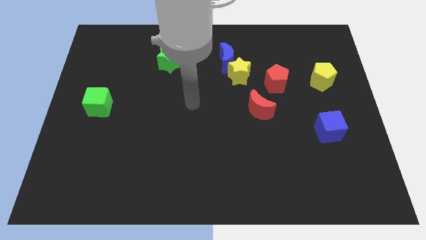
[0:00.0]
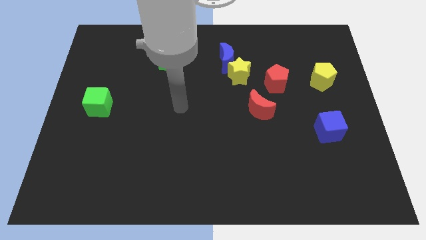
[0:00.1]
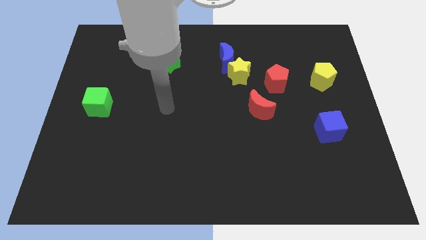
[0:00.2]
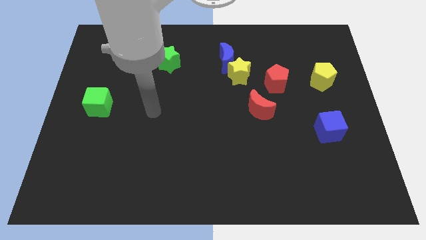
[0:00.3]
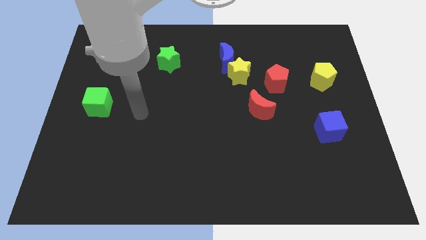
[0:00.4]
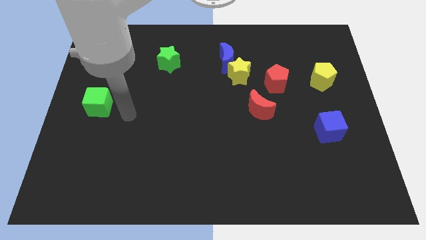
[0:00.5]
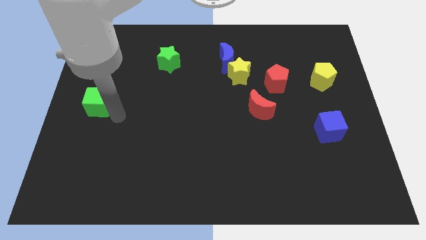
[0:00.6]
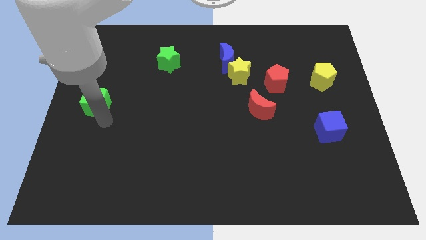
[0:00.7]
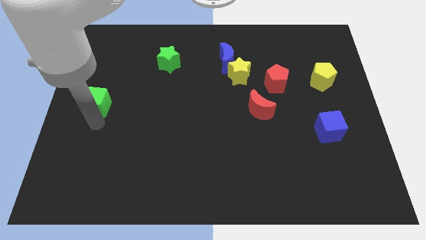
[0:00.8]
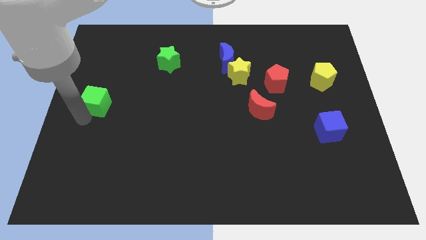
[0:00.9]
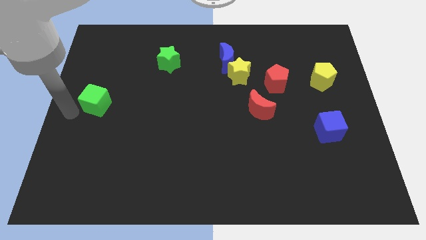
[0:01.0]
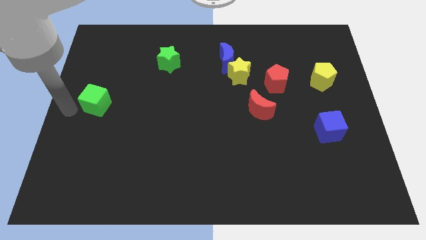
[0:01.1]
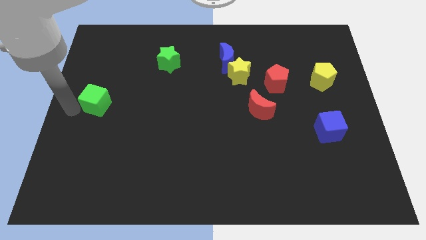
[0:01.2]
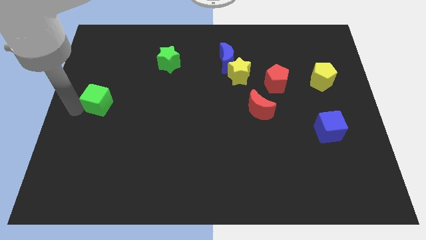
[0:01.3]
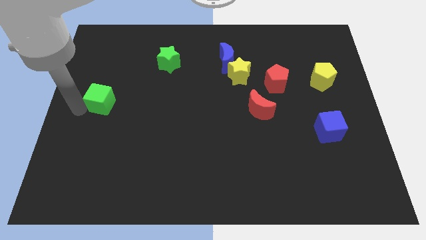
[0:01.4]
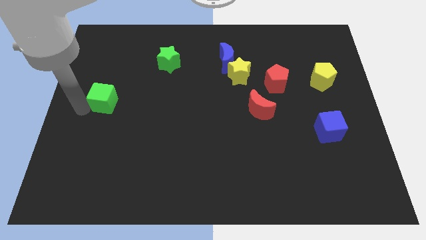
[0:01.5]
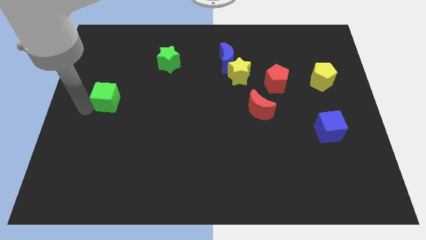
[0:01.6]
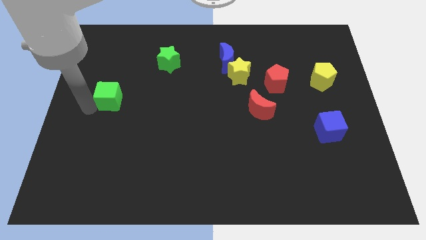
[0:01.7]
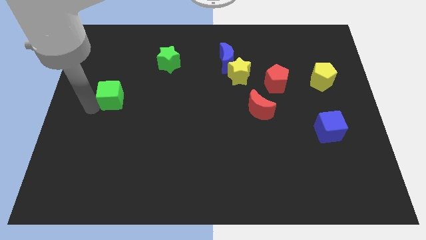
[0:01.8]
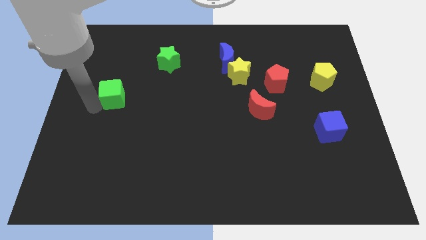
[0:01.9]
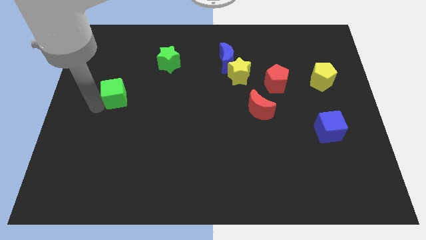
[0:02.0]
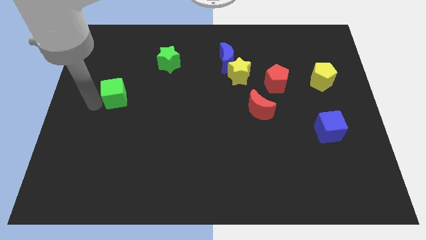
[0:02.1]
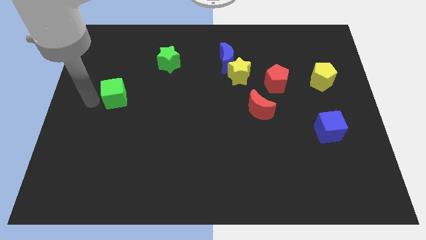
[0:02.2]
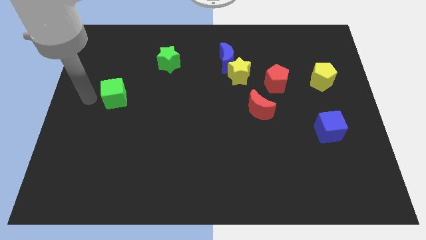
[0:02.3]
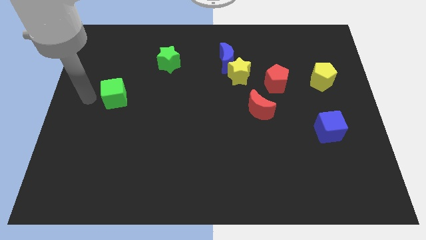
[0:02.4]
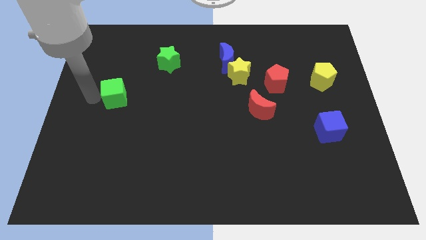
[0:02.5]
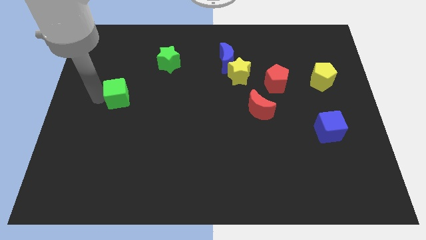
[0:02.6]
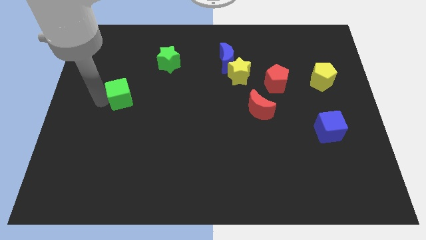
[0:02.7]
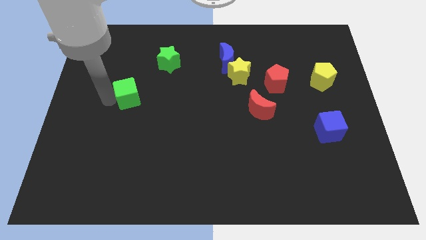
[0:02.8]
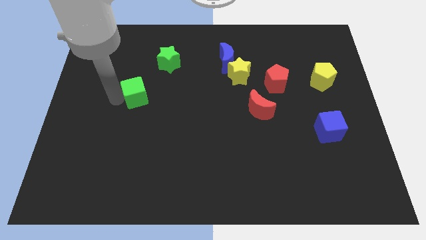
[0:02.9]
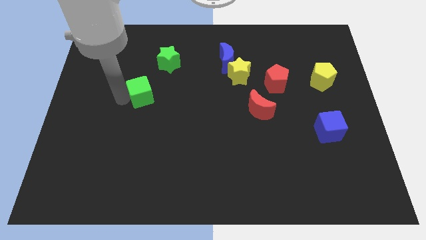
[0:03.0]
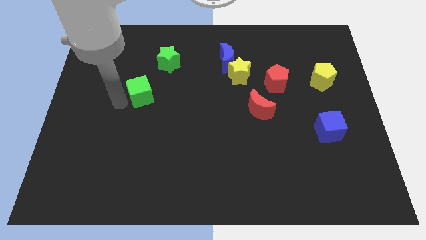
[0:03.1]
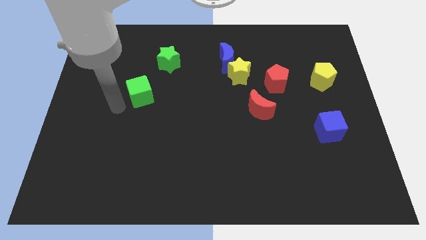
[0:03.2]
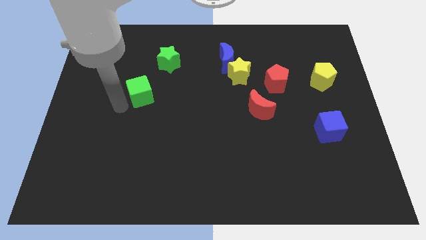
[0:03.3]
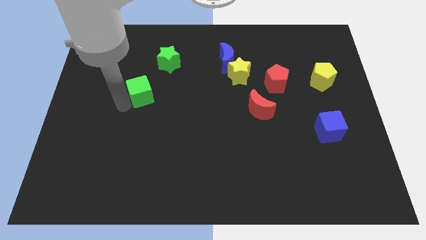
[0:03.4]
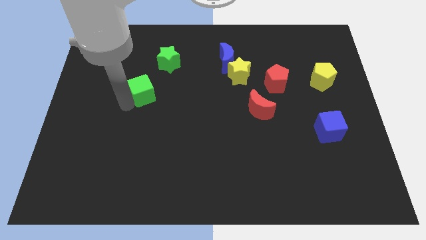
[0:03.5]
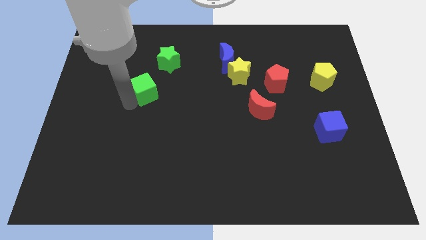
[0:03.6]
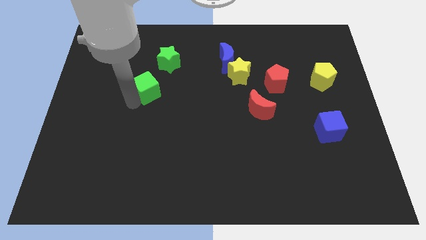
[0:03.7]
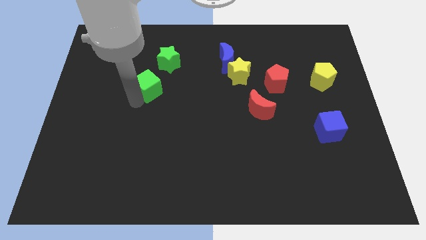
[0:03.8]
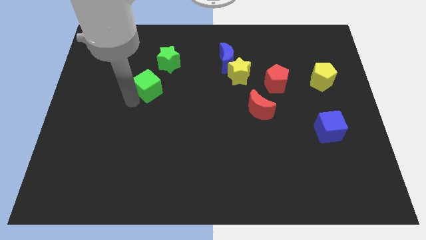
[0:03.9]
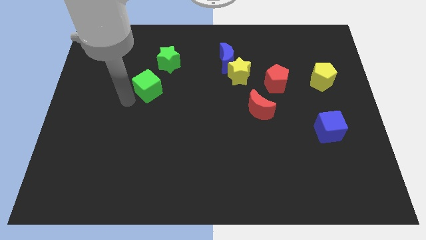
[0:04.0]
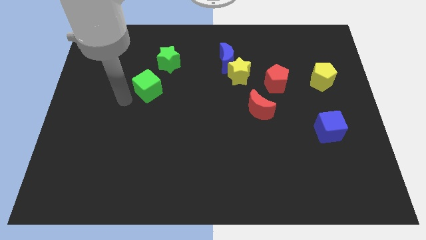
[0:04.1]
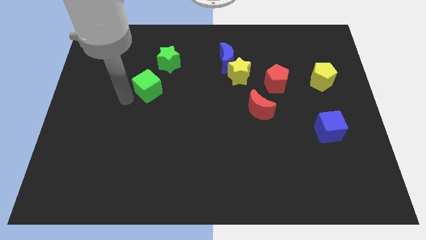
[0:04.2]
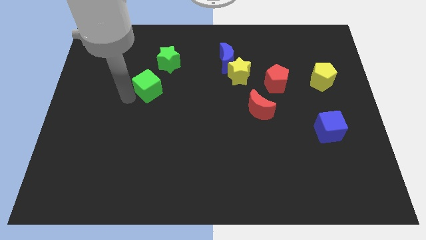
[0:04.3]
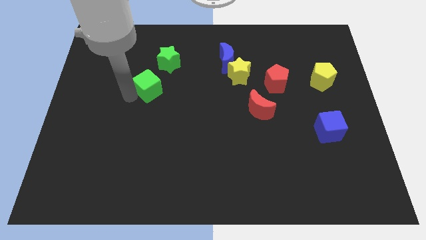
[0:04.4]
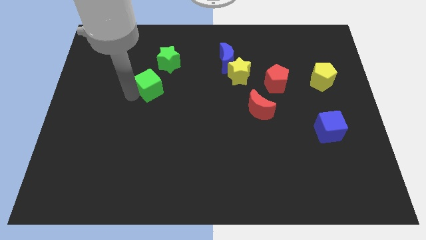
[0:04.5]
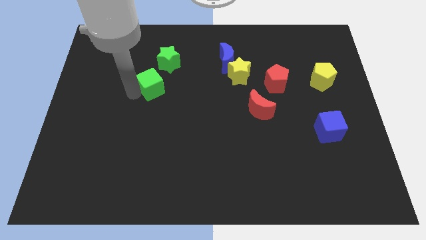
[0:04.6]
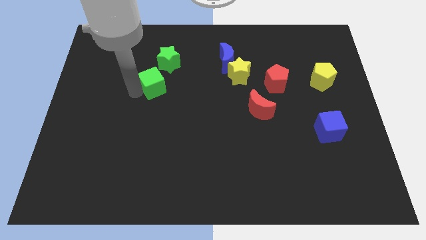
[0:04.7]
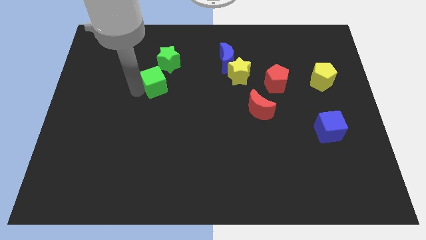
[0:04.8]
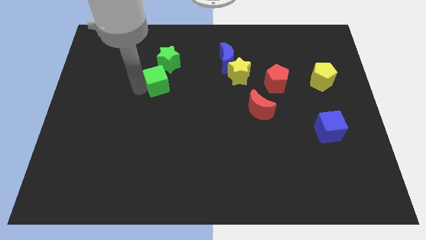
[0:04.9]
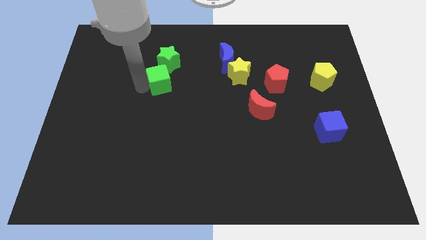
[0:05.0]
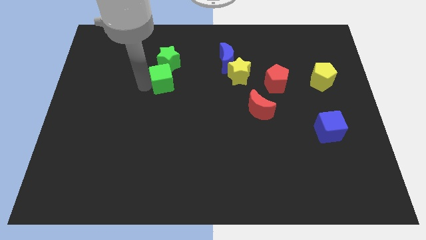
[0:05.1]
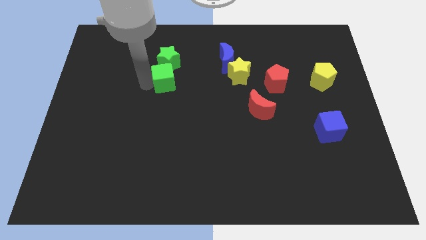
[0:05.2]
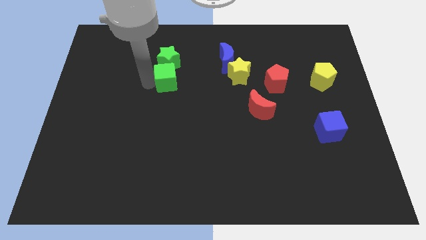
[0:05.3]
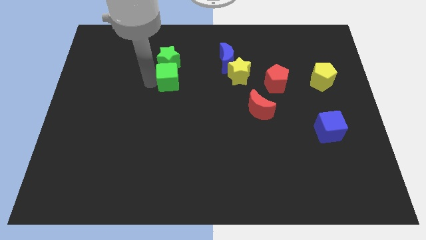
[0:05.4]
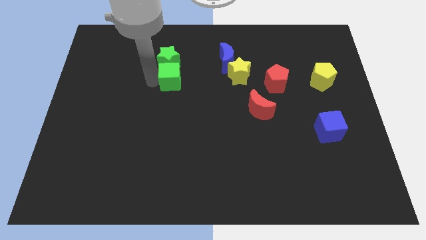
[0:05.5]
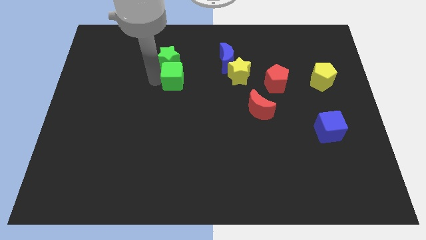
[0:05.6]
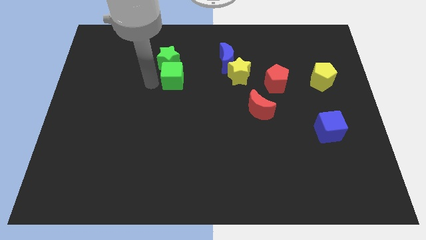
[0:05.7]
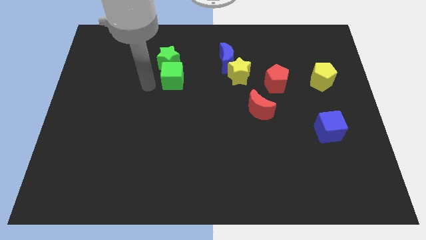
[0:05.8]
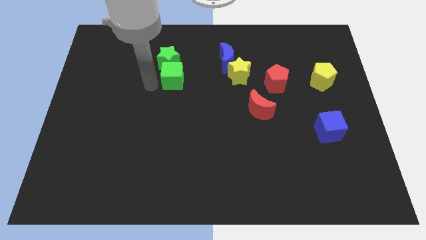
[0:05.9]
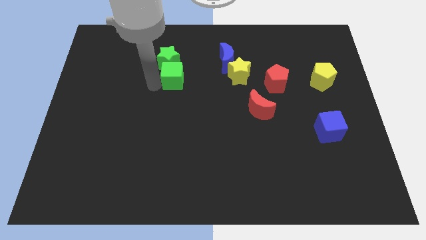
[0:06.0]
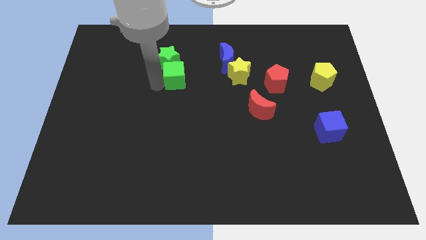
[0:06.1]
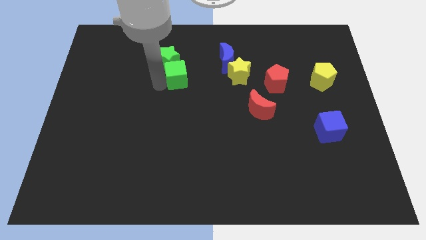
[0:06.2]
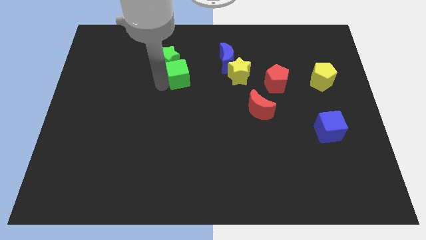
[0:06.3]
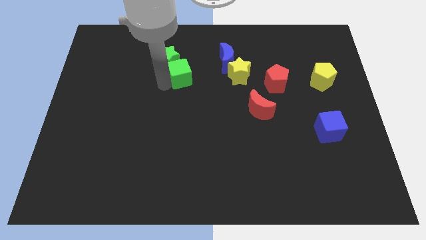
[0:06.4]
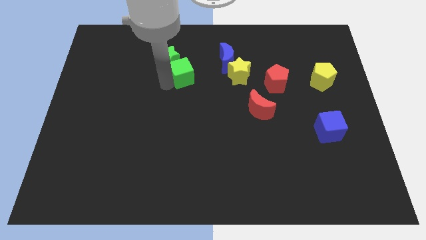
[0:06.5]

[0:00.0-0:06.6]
move the green cube to the right of the green star

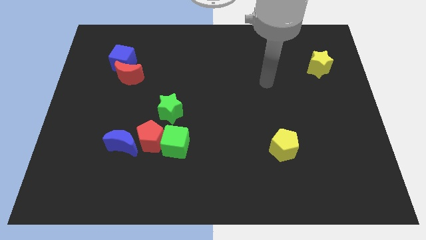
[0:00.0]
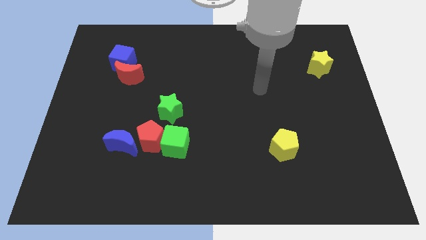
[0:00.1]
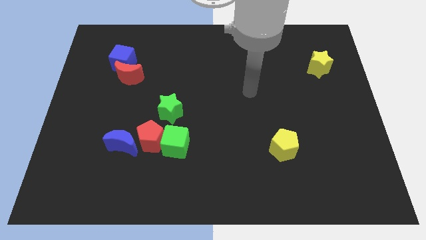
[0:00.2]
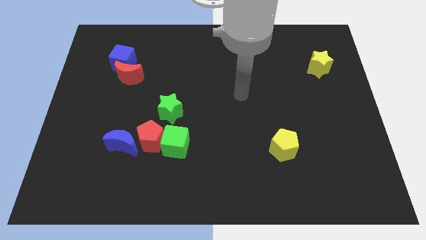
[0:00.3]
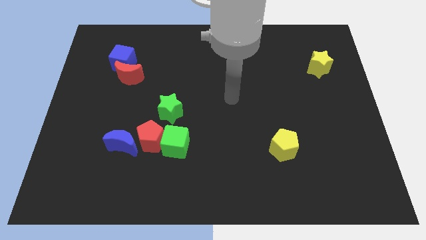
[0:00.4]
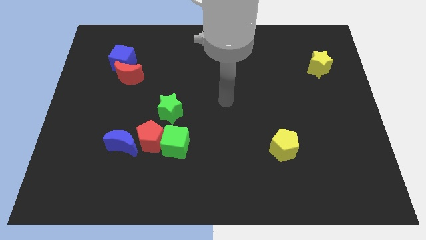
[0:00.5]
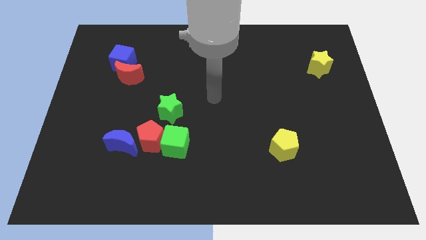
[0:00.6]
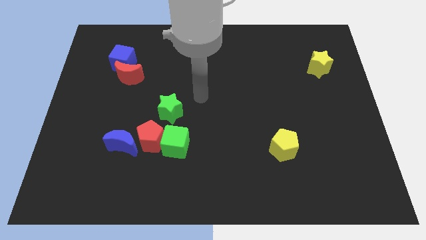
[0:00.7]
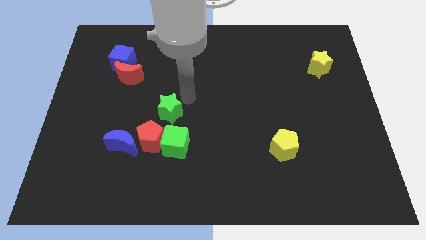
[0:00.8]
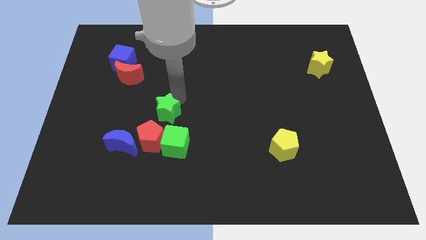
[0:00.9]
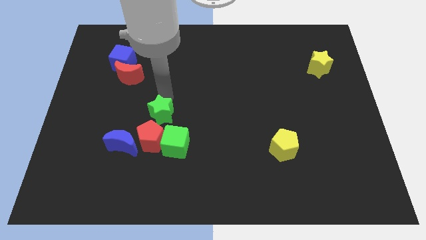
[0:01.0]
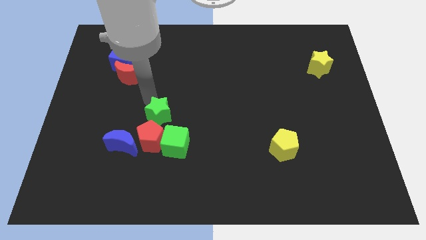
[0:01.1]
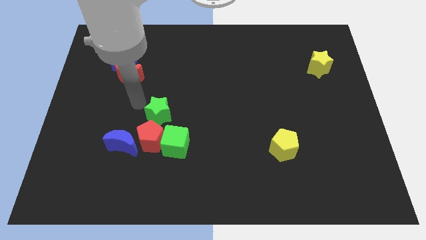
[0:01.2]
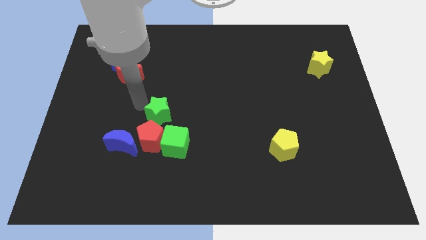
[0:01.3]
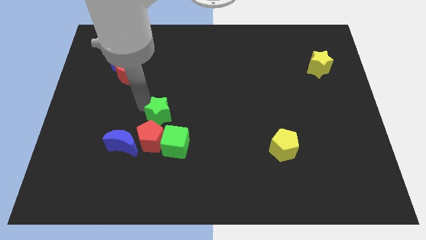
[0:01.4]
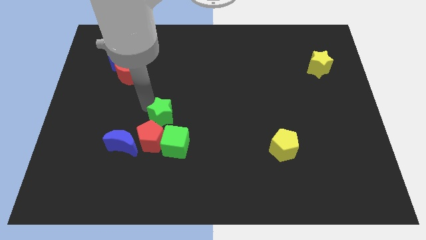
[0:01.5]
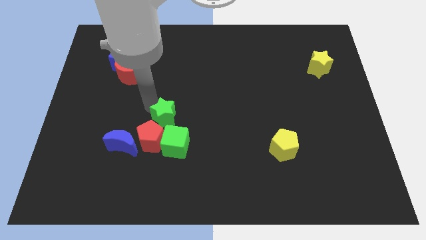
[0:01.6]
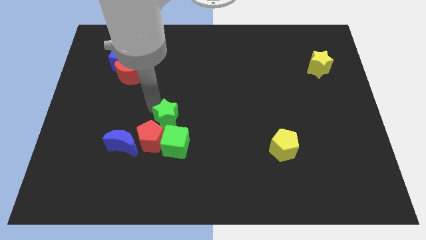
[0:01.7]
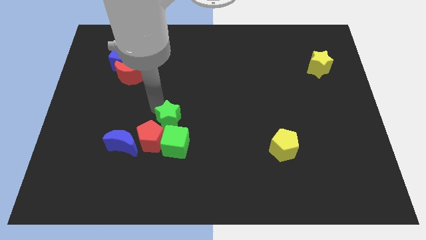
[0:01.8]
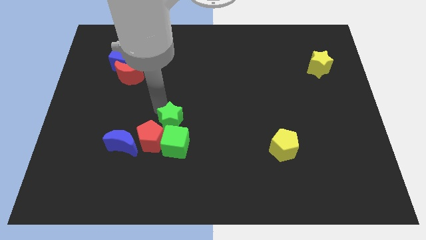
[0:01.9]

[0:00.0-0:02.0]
move the green star to the right of the red pentagon
